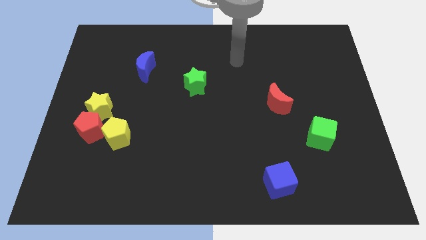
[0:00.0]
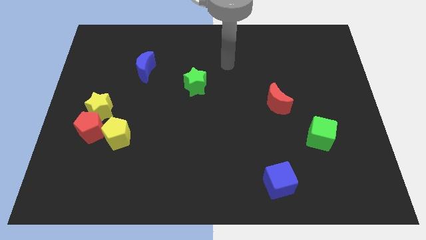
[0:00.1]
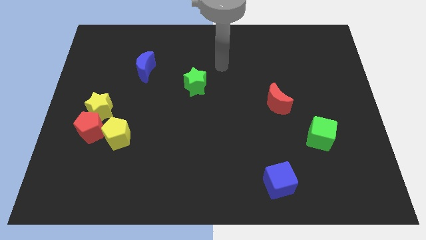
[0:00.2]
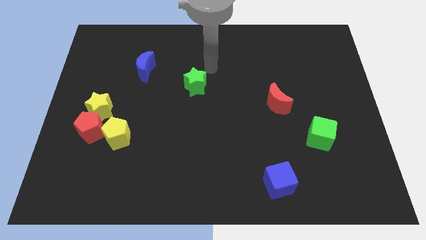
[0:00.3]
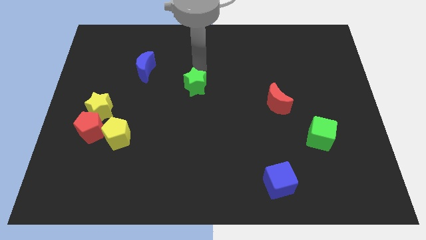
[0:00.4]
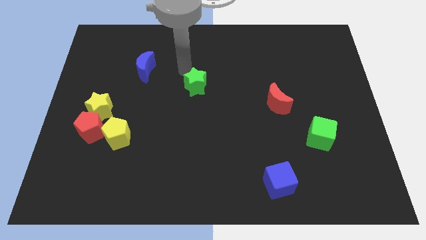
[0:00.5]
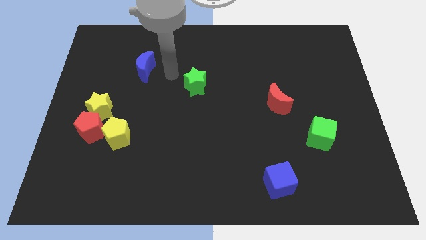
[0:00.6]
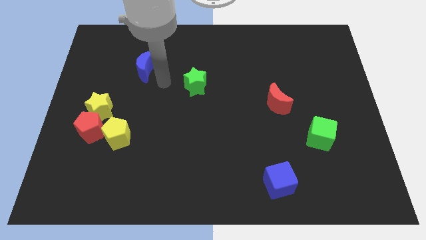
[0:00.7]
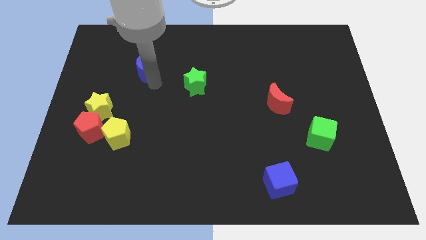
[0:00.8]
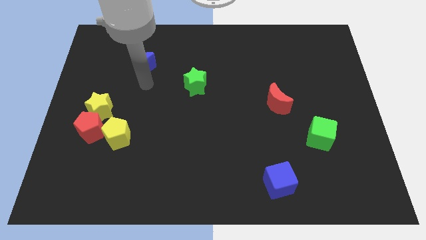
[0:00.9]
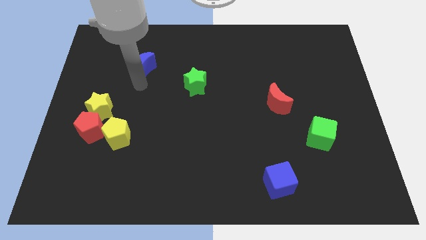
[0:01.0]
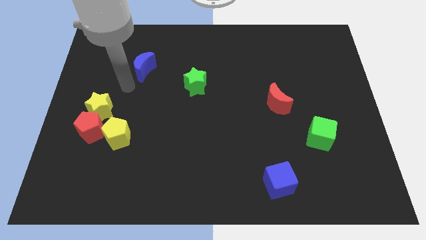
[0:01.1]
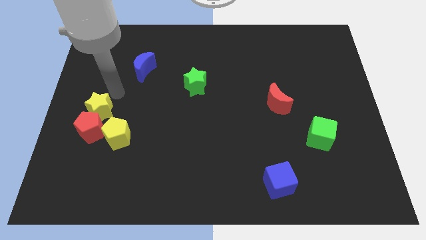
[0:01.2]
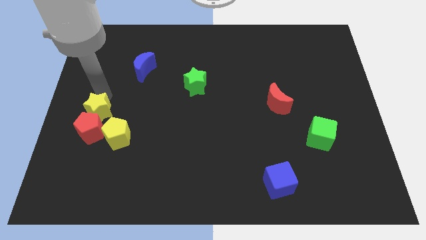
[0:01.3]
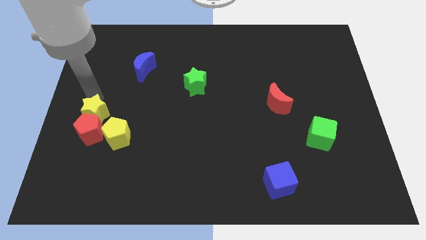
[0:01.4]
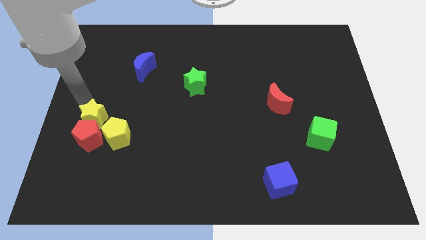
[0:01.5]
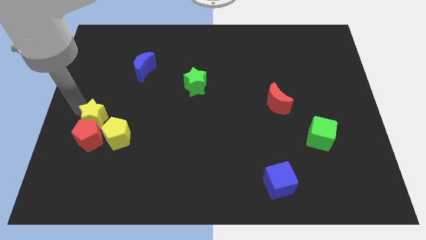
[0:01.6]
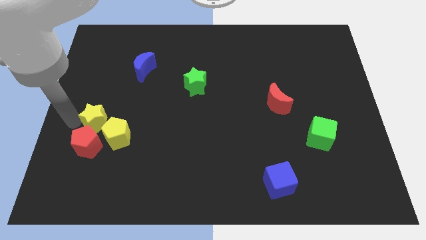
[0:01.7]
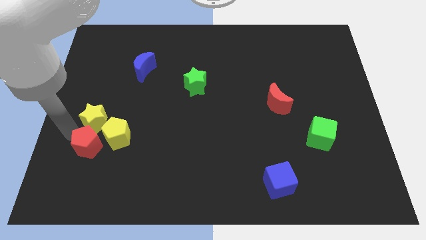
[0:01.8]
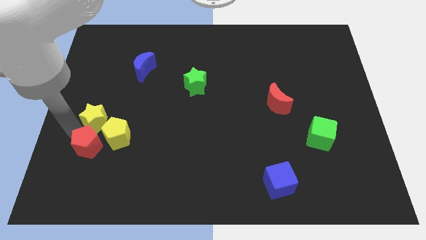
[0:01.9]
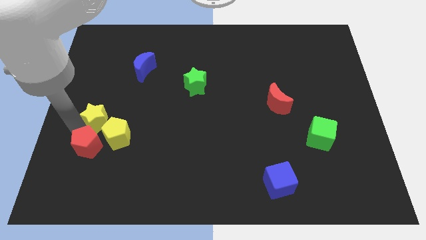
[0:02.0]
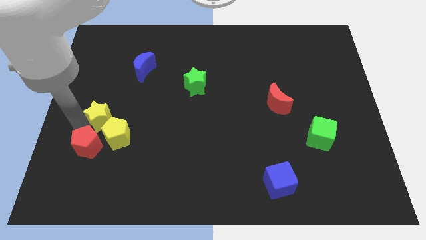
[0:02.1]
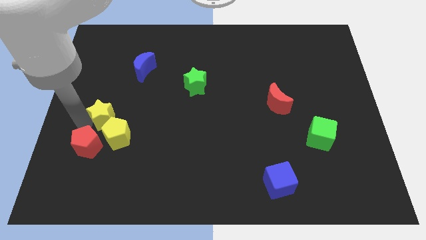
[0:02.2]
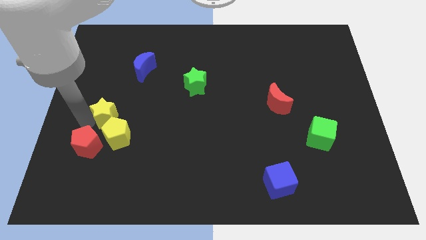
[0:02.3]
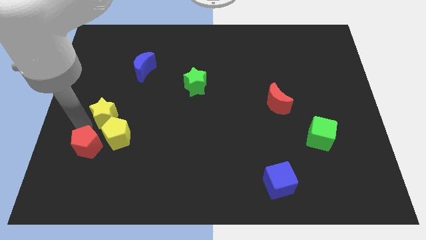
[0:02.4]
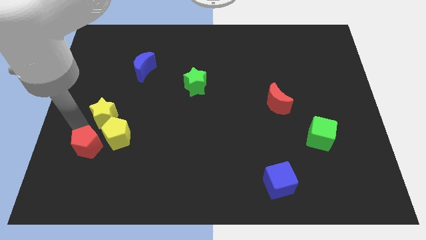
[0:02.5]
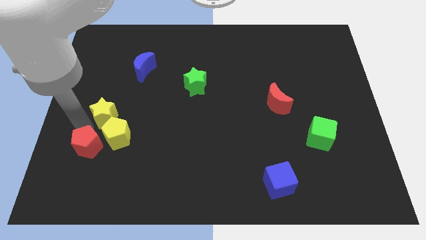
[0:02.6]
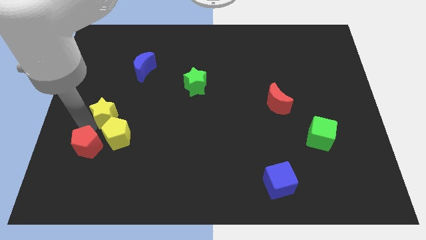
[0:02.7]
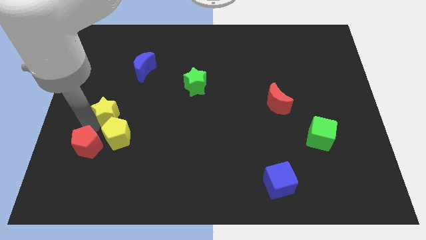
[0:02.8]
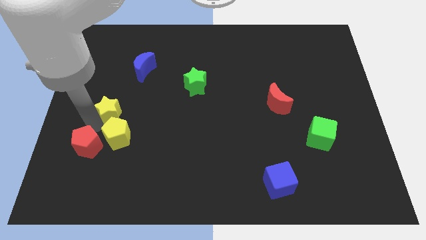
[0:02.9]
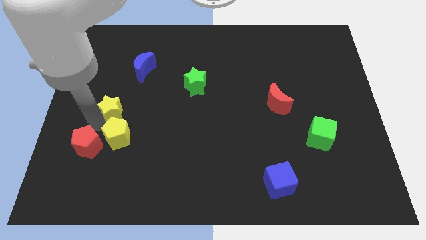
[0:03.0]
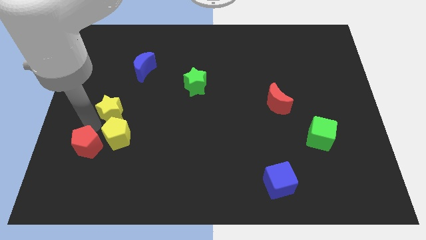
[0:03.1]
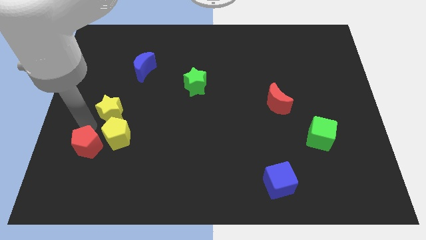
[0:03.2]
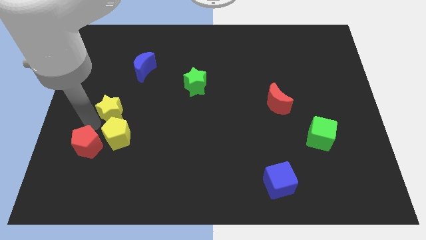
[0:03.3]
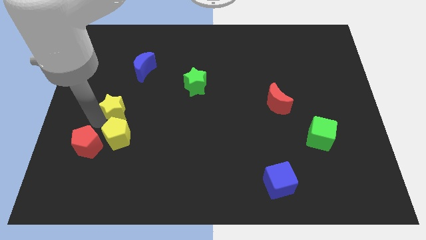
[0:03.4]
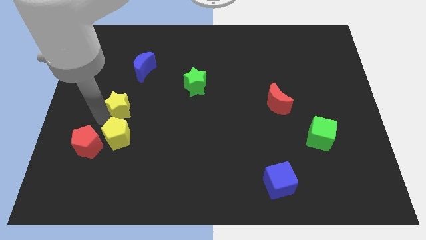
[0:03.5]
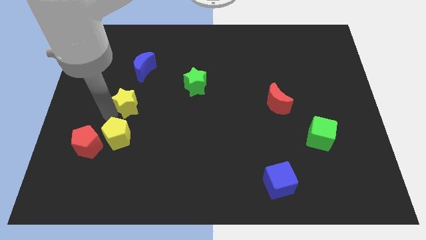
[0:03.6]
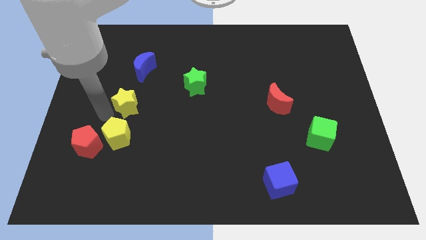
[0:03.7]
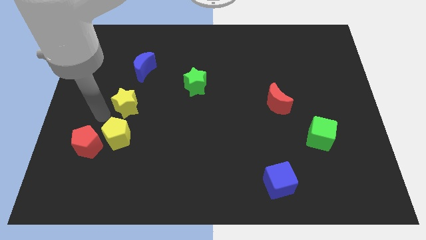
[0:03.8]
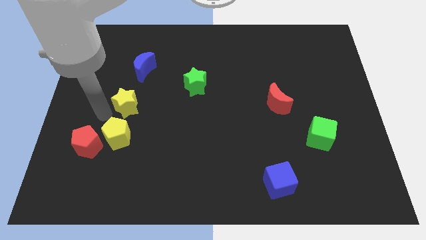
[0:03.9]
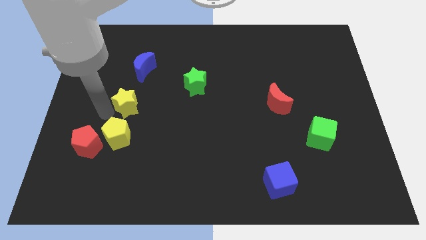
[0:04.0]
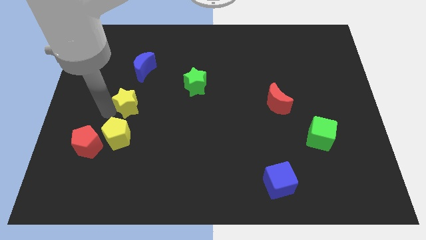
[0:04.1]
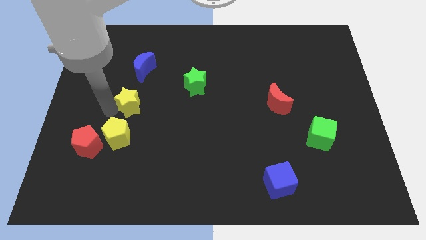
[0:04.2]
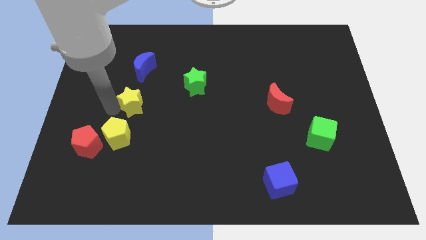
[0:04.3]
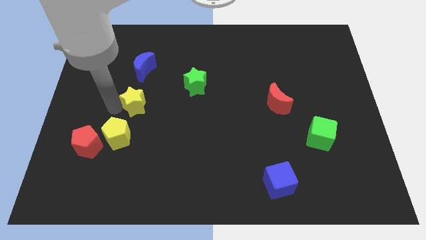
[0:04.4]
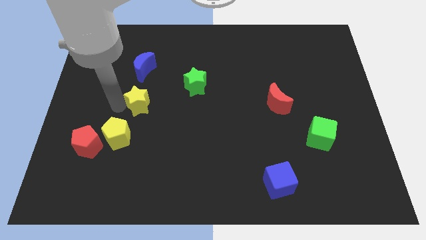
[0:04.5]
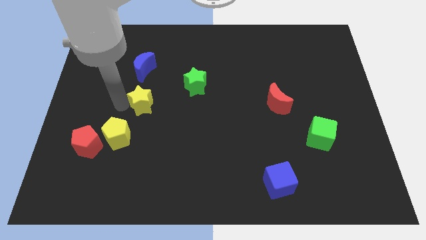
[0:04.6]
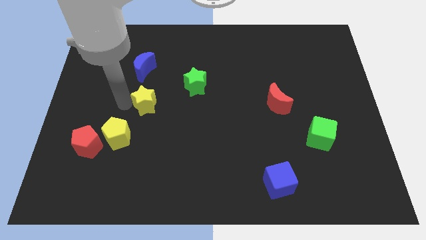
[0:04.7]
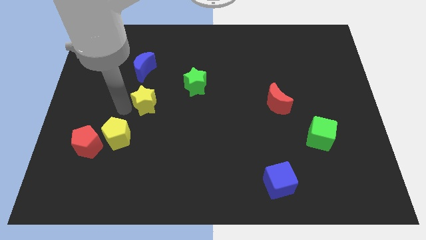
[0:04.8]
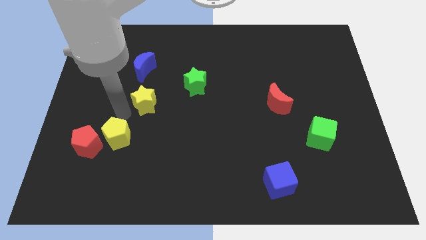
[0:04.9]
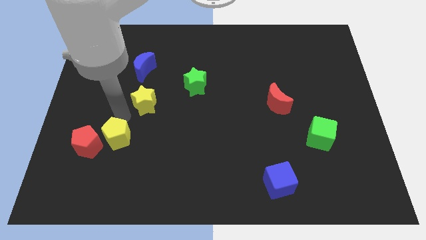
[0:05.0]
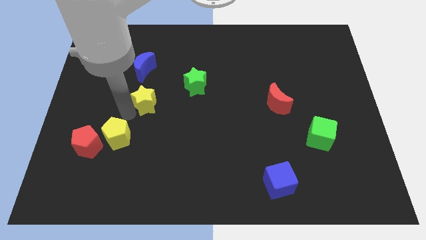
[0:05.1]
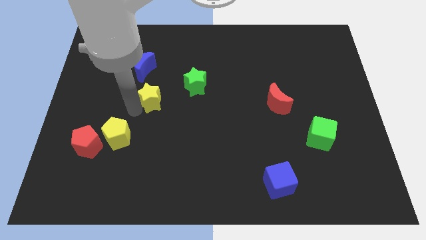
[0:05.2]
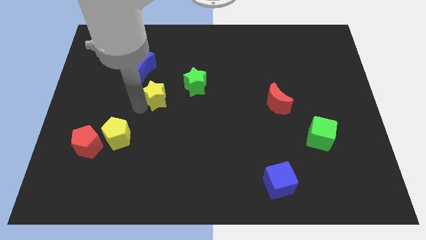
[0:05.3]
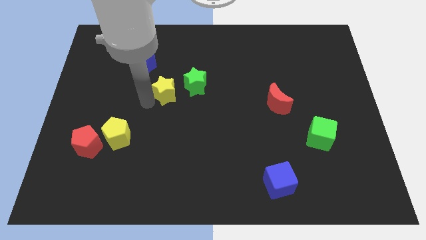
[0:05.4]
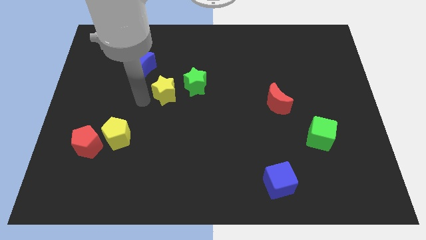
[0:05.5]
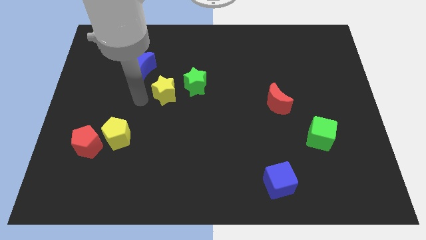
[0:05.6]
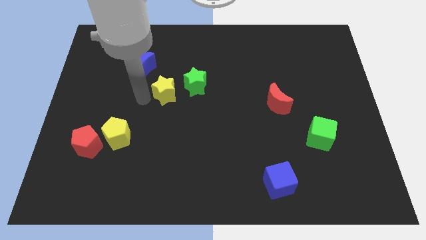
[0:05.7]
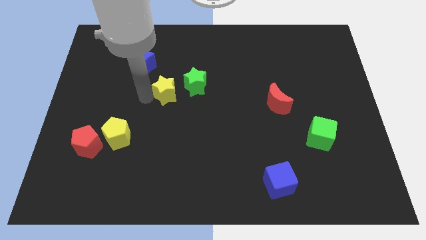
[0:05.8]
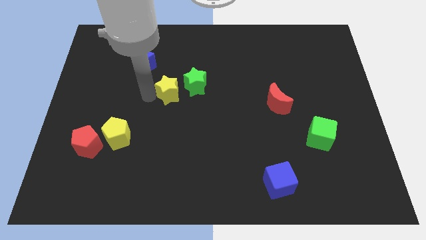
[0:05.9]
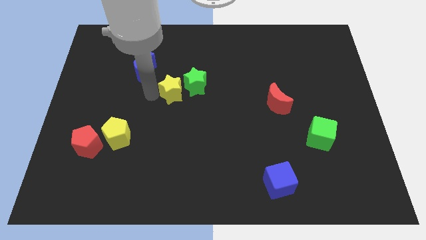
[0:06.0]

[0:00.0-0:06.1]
put the yellow star towards the green star

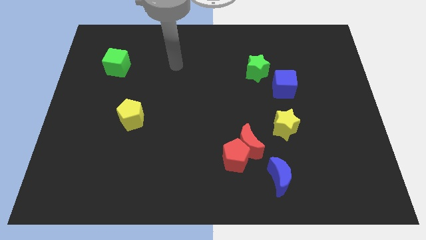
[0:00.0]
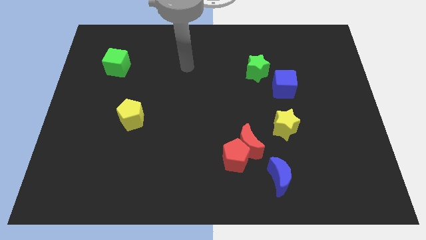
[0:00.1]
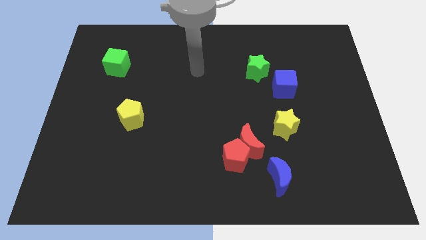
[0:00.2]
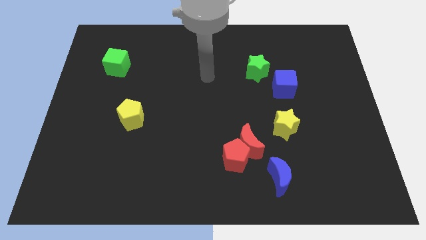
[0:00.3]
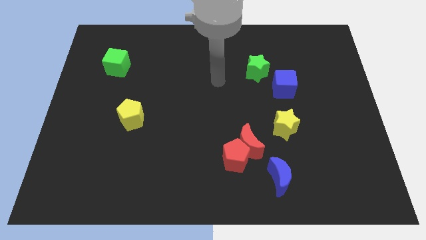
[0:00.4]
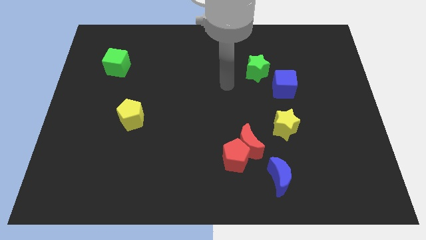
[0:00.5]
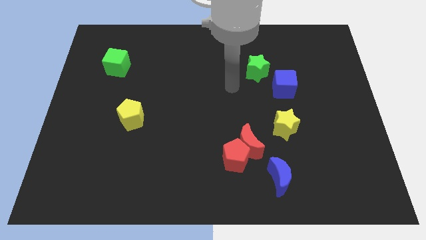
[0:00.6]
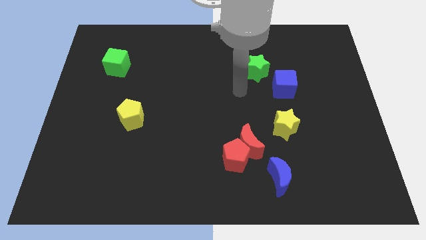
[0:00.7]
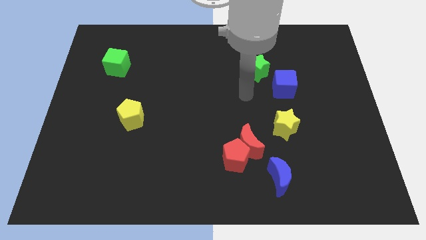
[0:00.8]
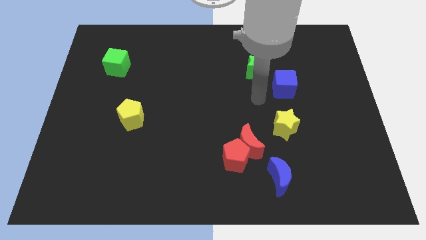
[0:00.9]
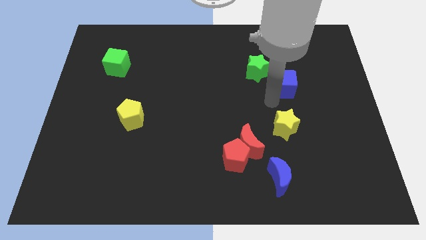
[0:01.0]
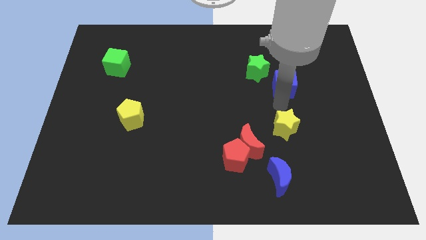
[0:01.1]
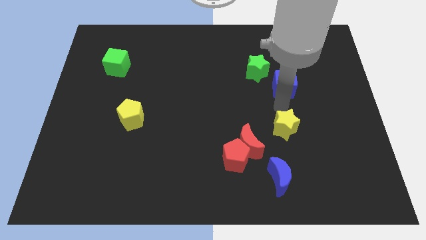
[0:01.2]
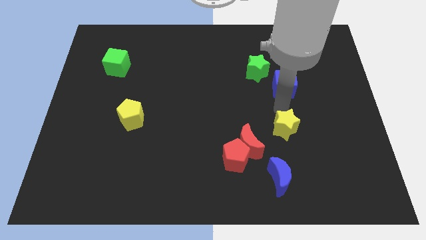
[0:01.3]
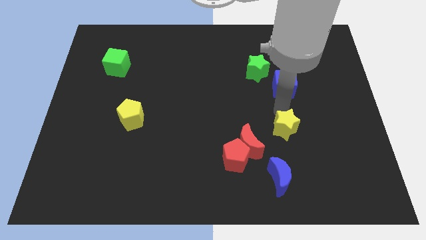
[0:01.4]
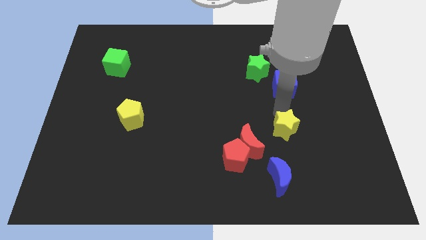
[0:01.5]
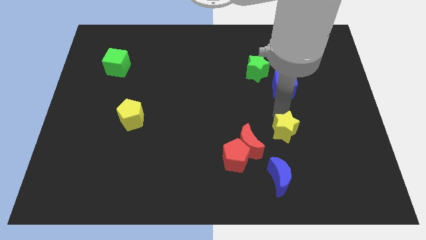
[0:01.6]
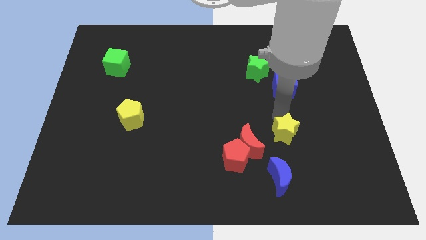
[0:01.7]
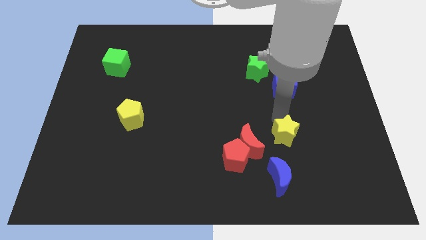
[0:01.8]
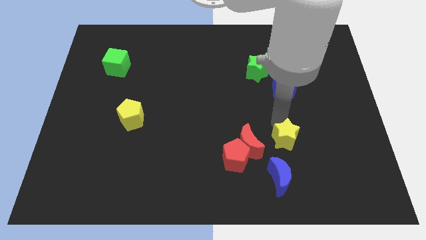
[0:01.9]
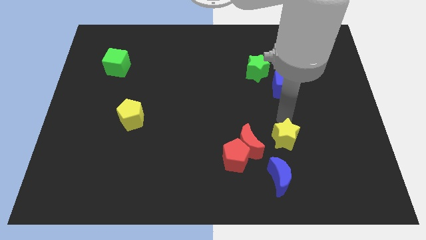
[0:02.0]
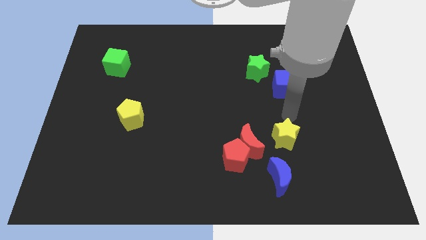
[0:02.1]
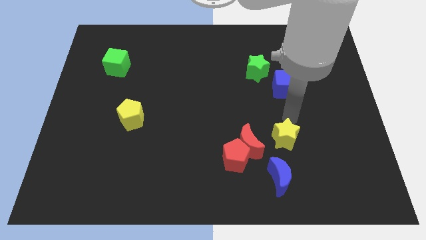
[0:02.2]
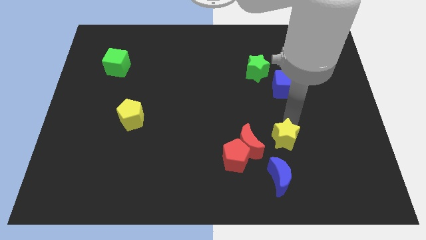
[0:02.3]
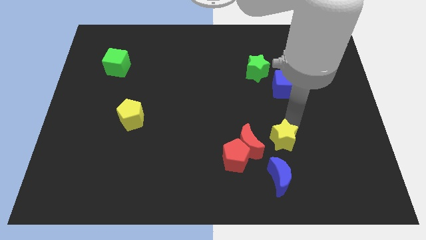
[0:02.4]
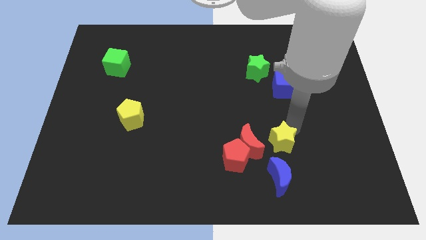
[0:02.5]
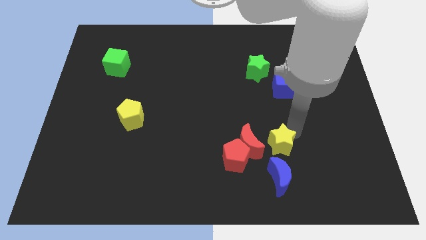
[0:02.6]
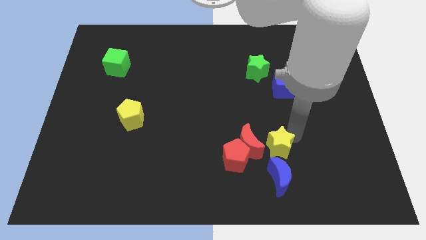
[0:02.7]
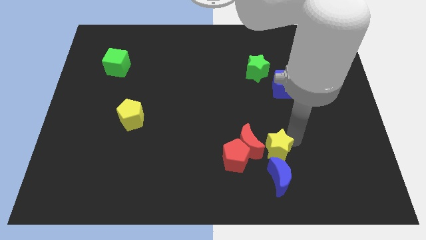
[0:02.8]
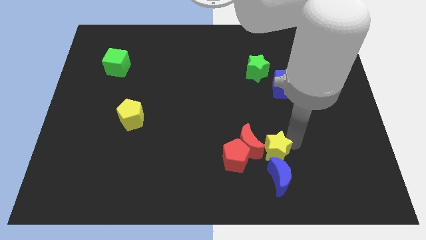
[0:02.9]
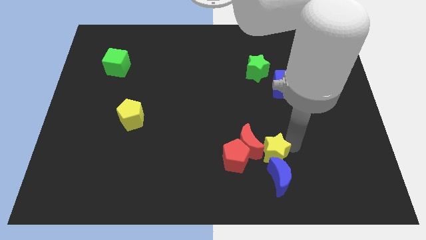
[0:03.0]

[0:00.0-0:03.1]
push the yellow star to the blue moon
